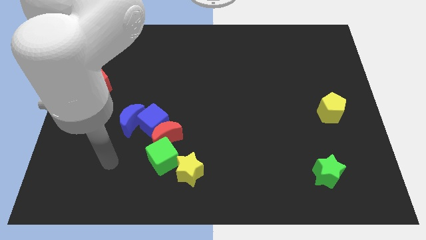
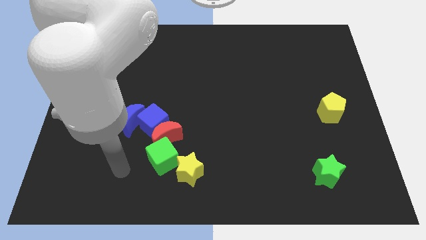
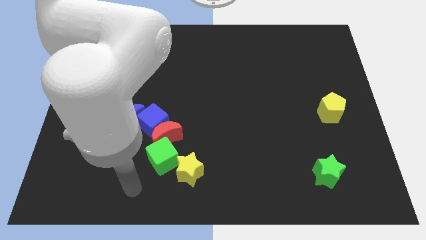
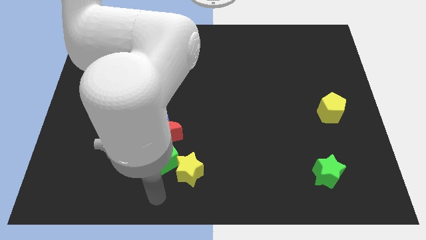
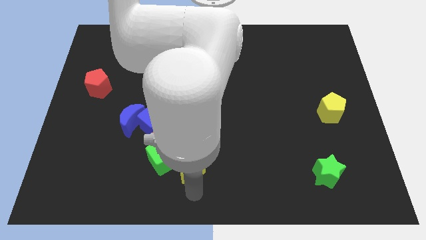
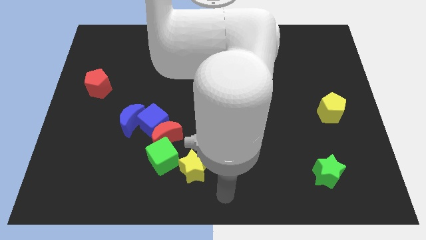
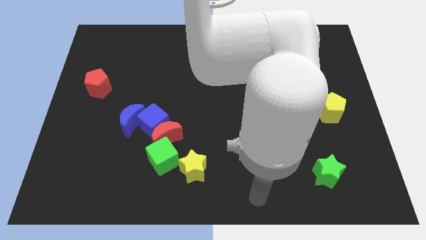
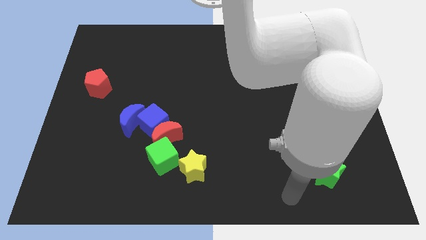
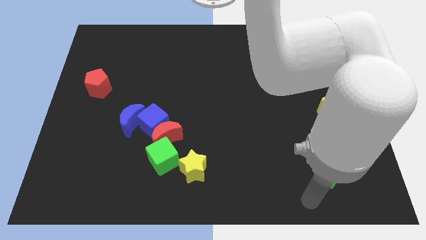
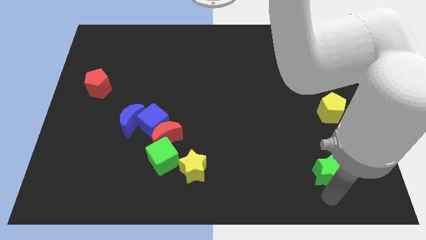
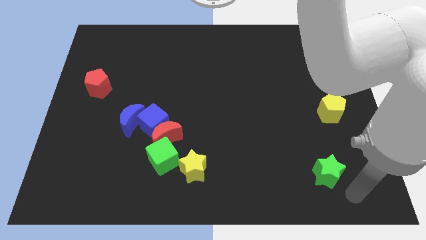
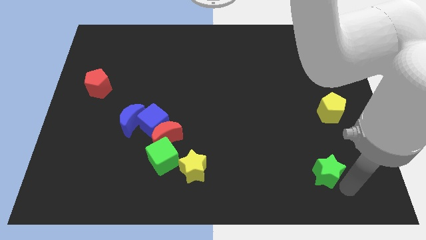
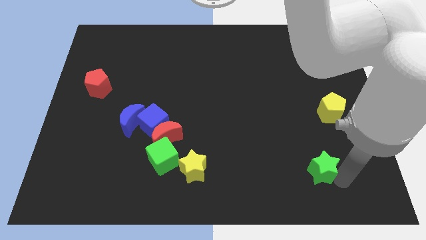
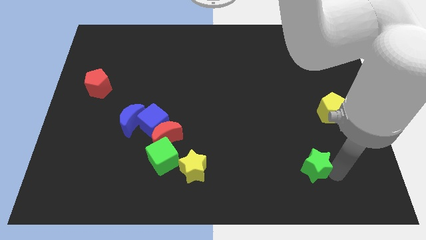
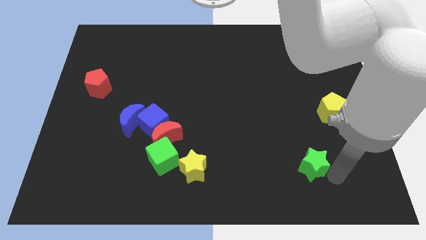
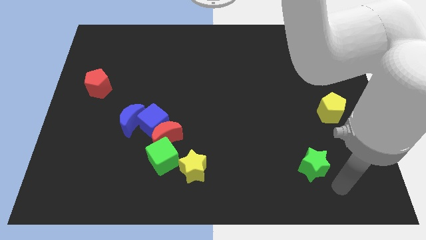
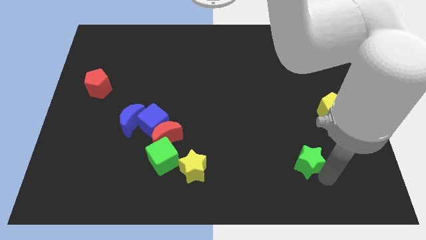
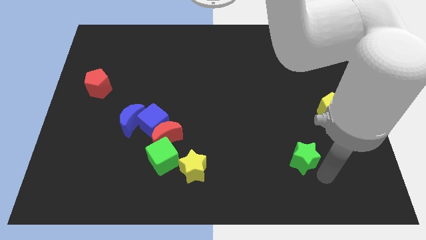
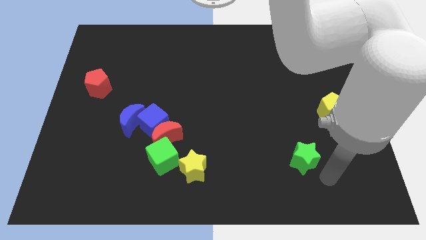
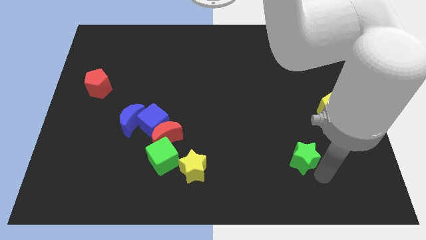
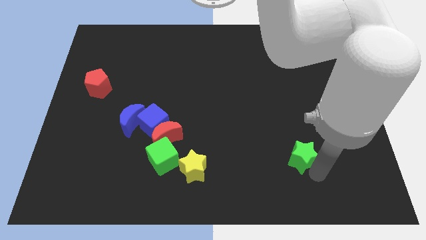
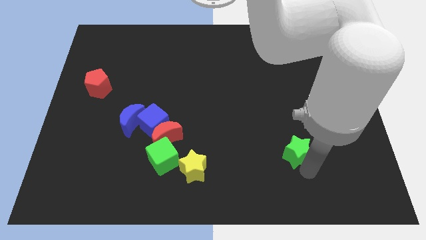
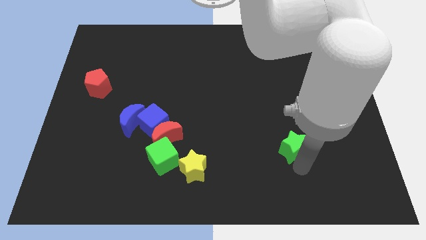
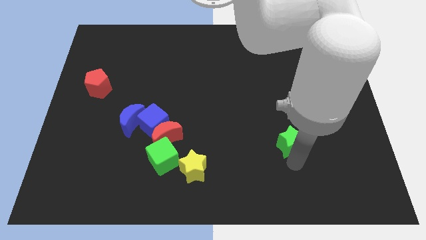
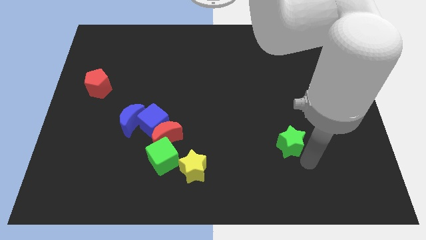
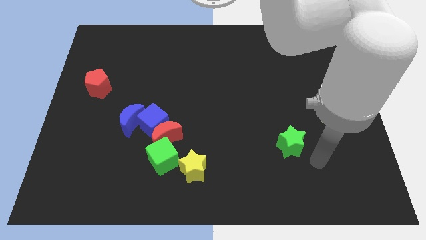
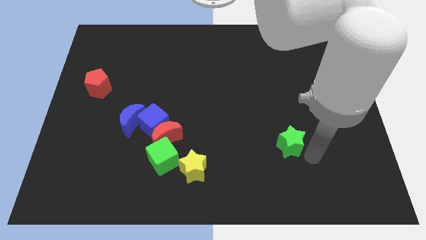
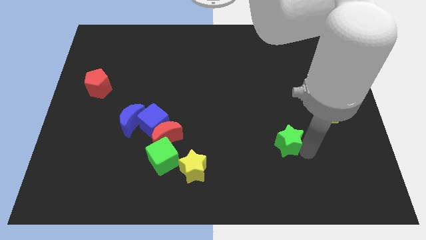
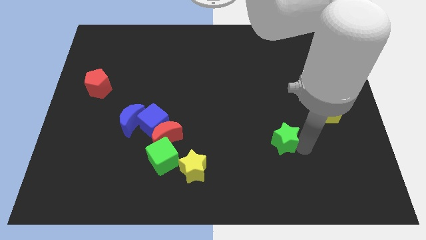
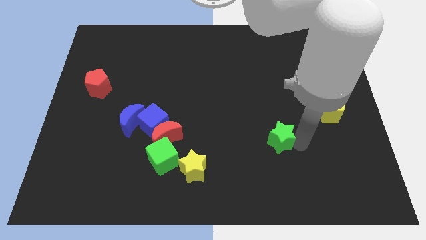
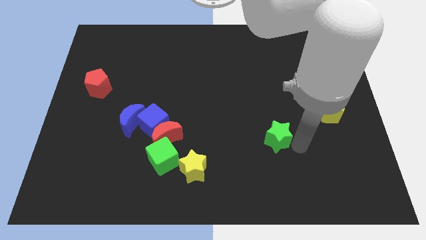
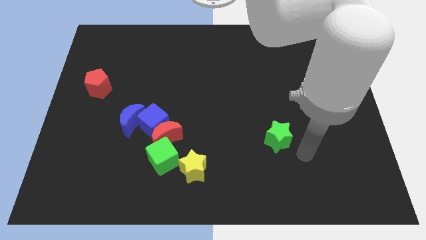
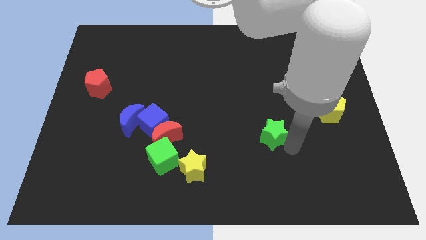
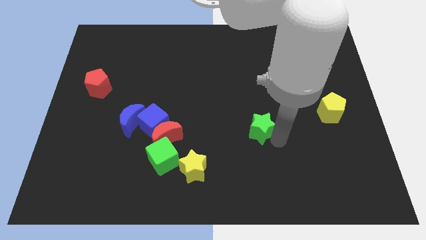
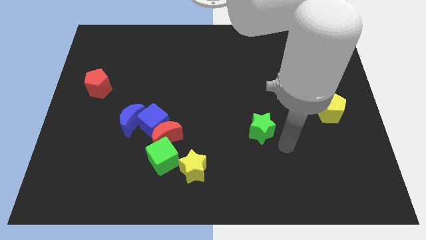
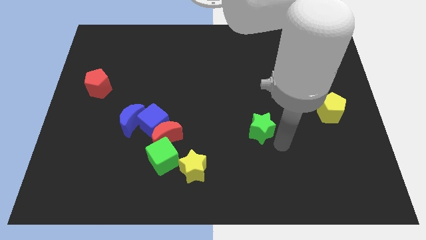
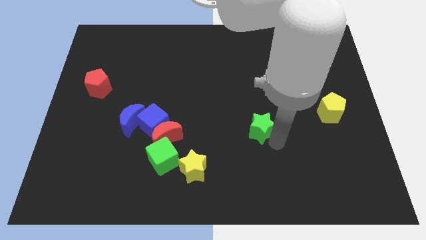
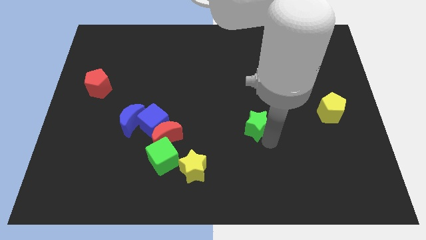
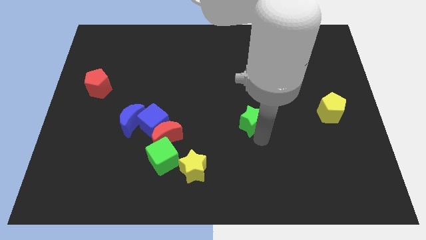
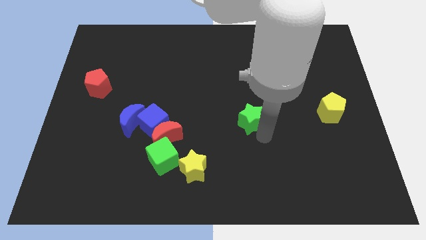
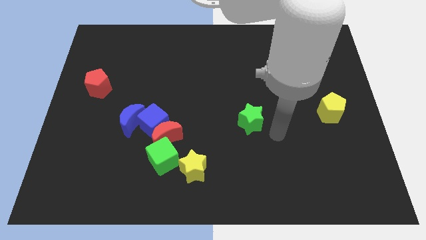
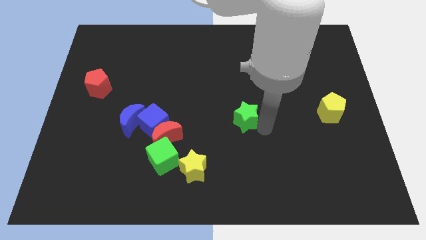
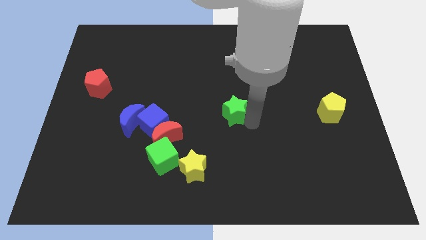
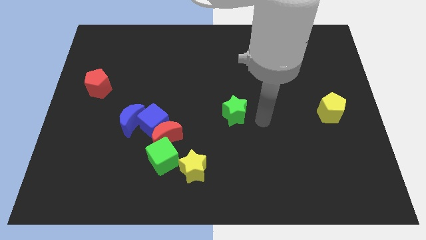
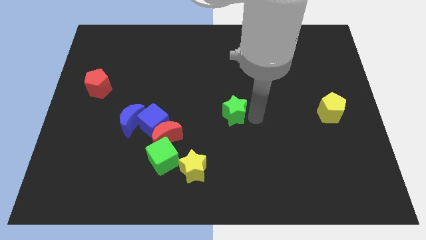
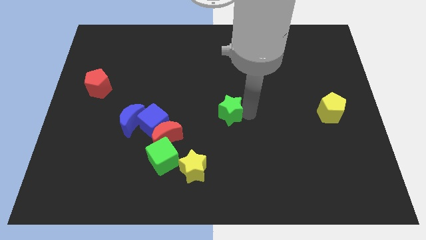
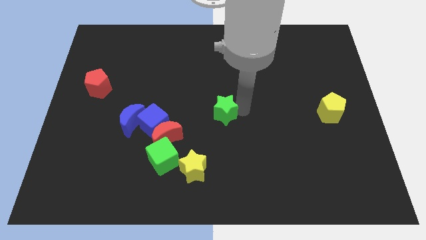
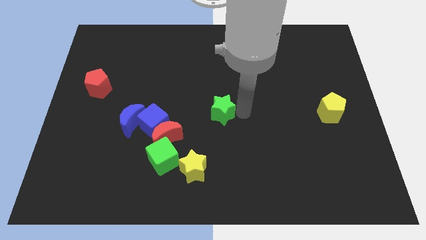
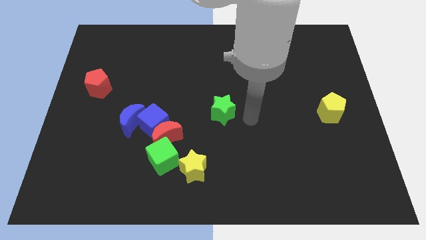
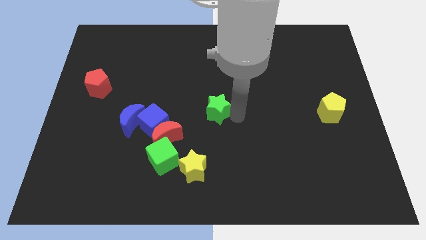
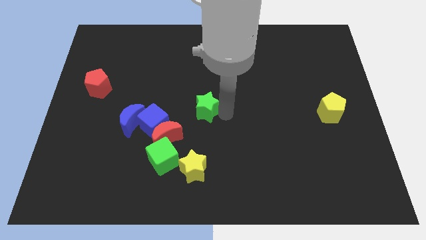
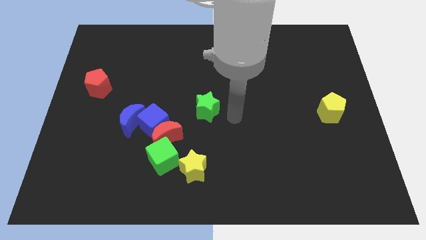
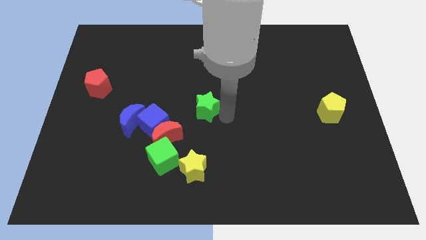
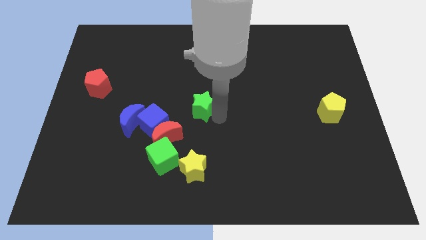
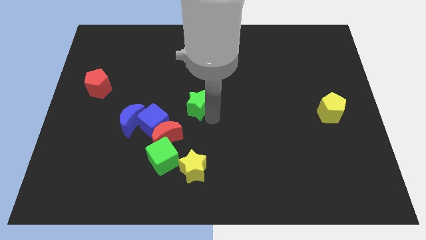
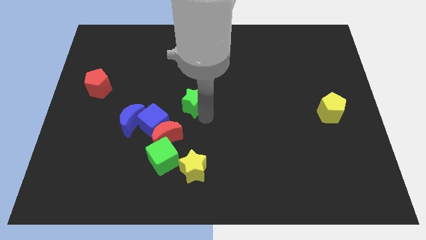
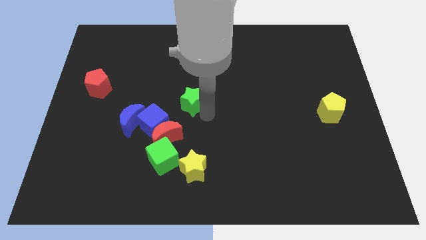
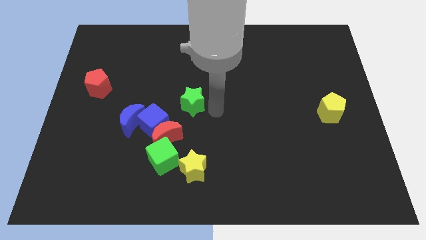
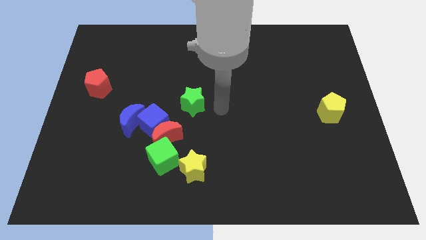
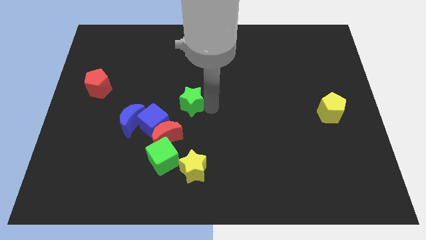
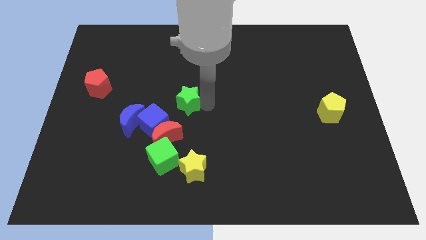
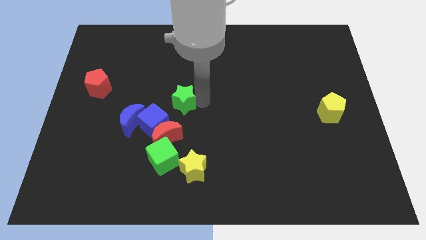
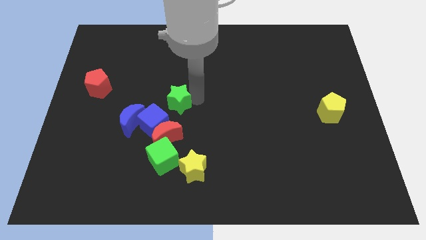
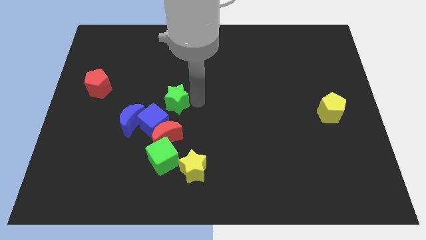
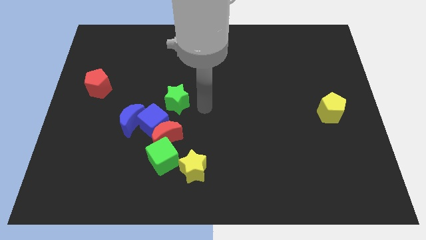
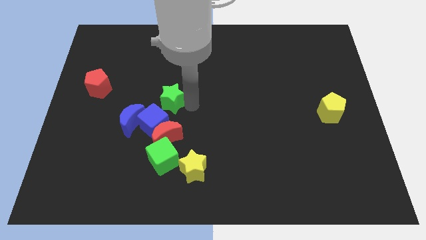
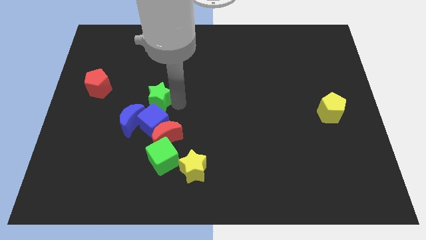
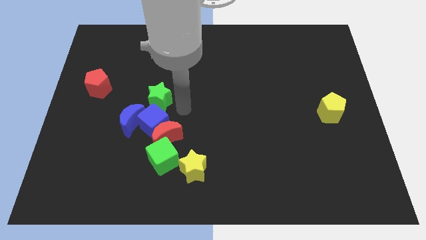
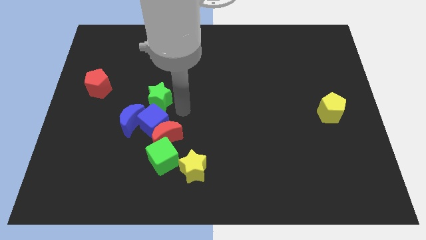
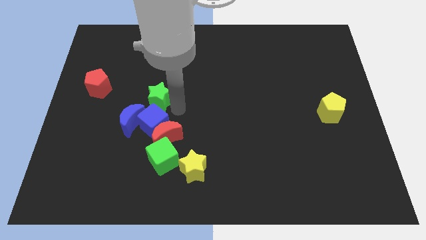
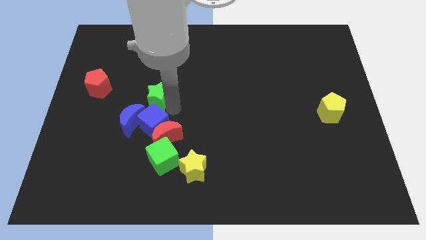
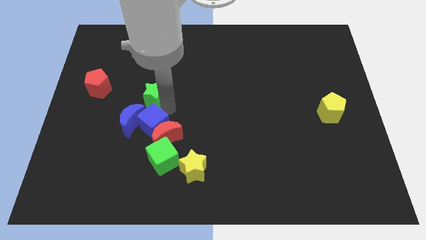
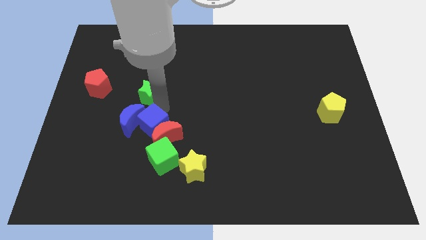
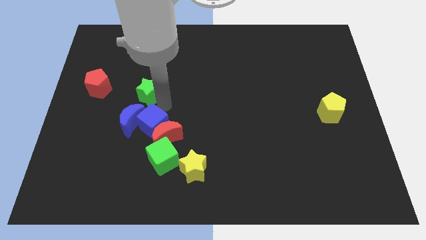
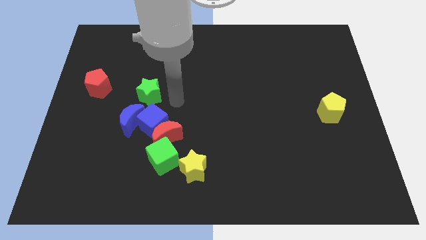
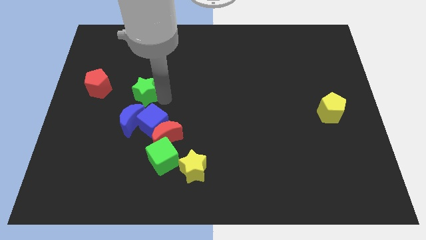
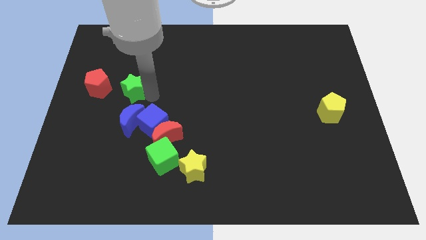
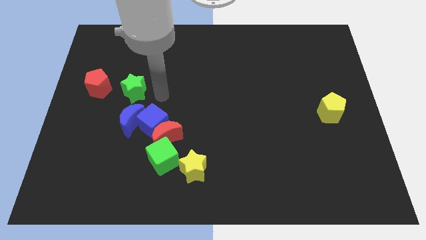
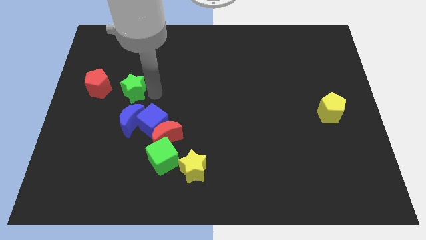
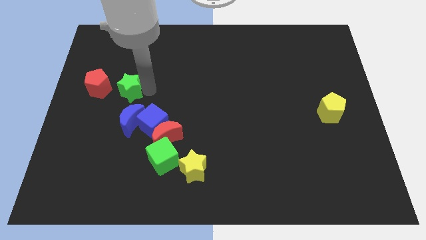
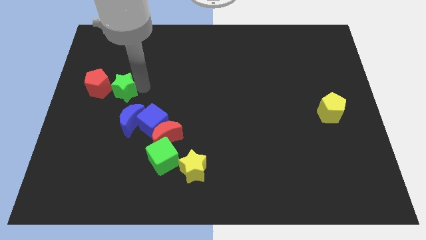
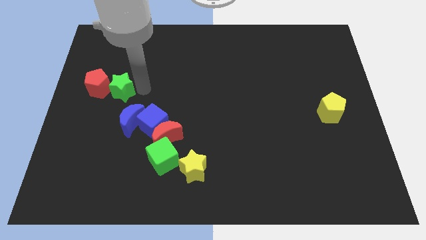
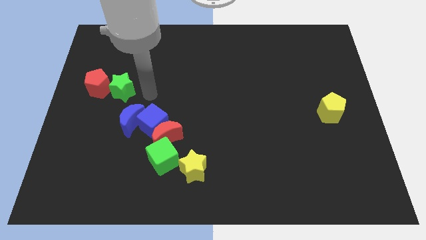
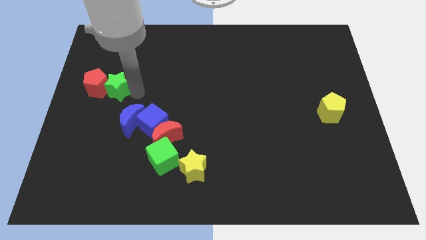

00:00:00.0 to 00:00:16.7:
slide the green star towards the red pentagon
